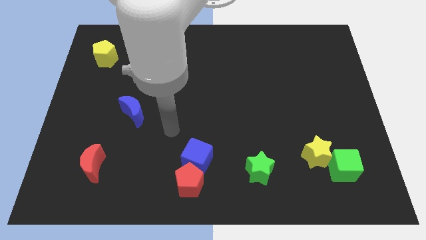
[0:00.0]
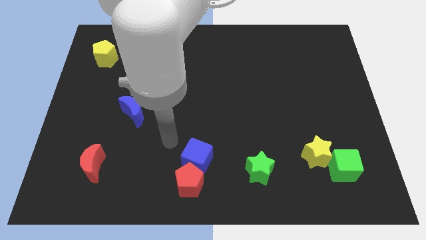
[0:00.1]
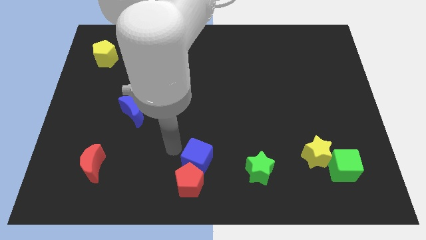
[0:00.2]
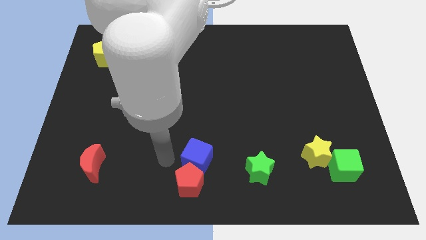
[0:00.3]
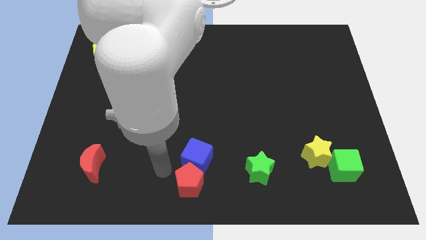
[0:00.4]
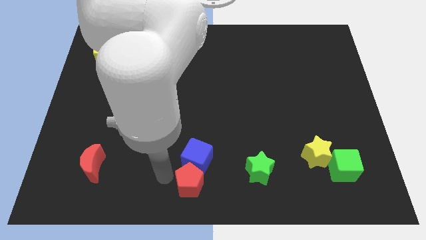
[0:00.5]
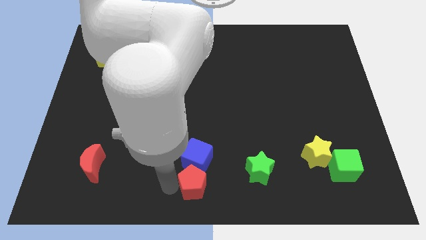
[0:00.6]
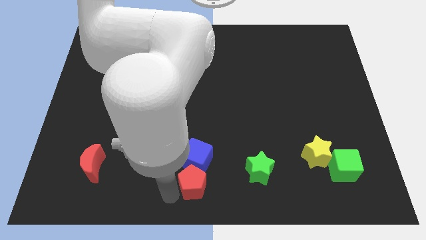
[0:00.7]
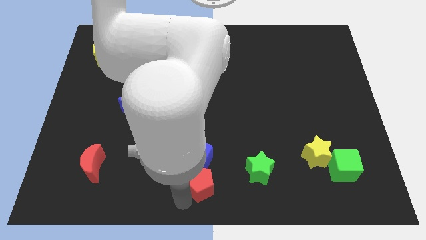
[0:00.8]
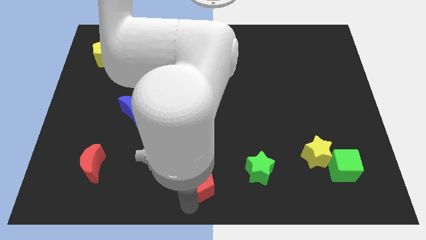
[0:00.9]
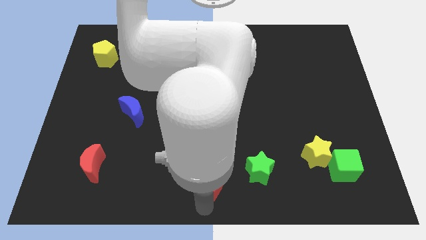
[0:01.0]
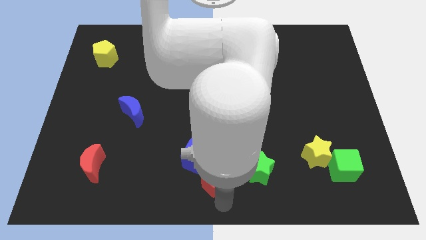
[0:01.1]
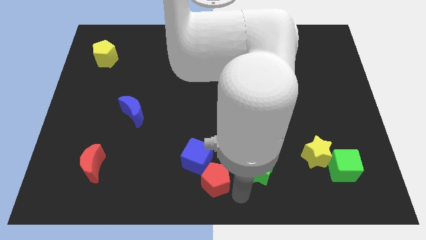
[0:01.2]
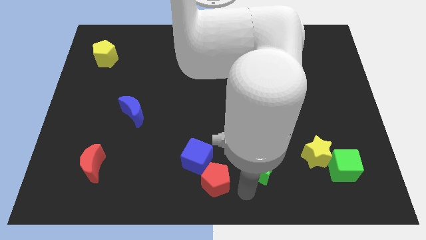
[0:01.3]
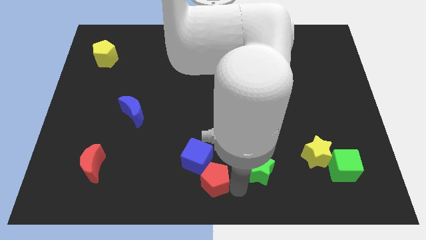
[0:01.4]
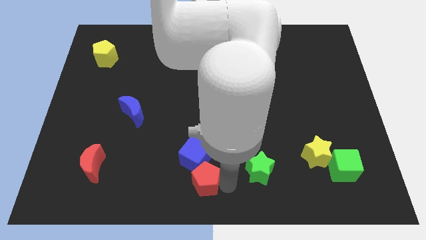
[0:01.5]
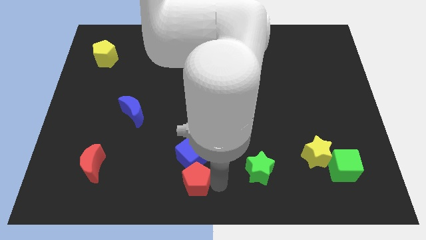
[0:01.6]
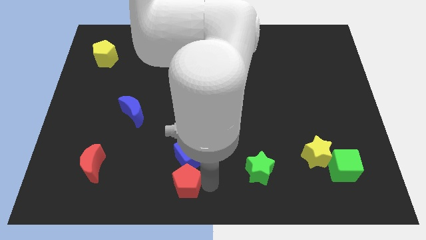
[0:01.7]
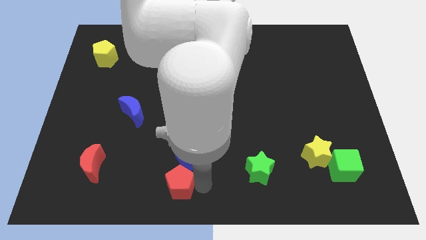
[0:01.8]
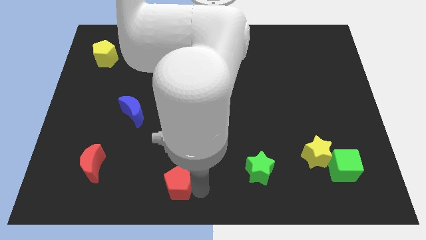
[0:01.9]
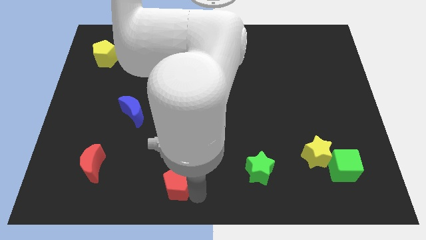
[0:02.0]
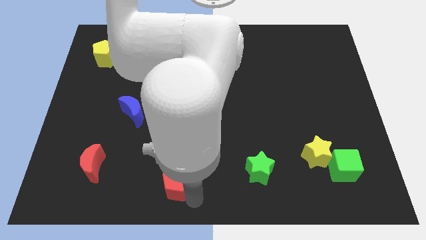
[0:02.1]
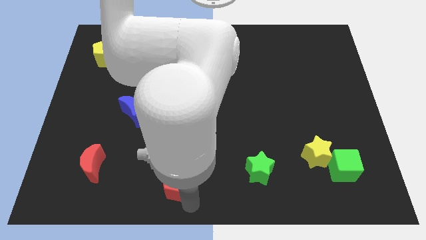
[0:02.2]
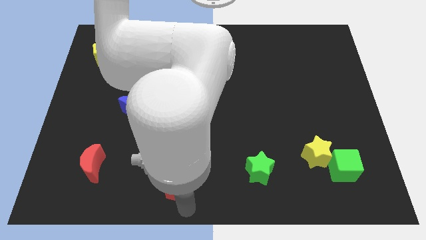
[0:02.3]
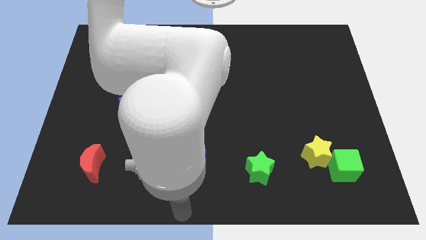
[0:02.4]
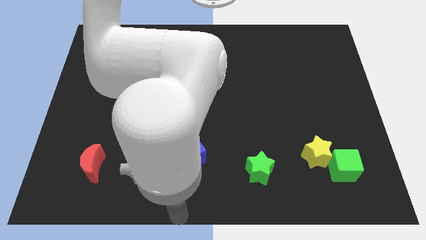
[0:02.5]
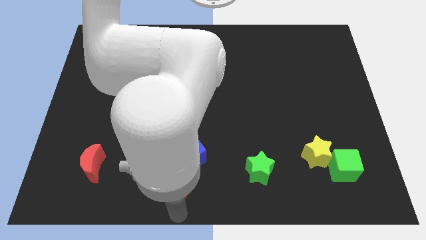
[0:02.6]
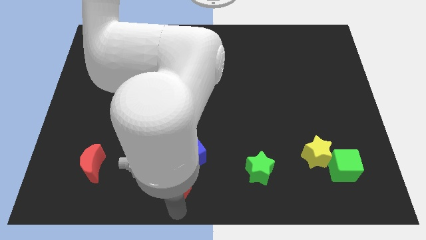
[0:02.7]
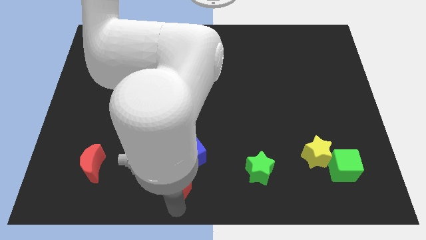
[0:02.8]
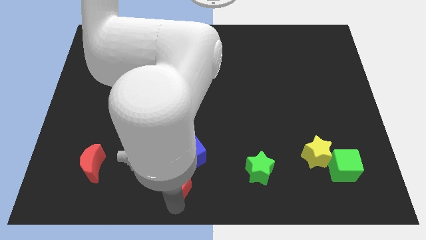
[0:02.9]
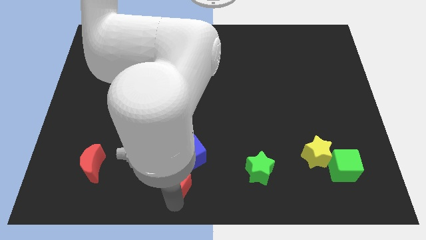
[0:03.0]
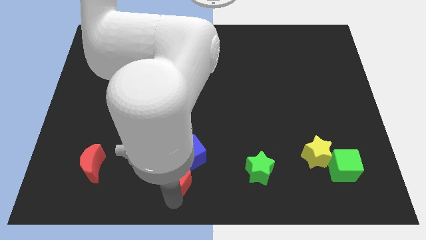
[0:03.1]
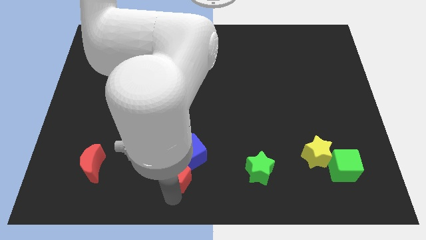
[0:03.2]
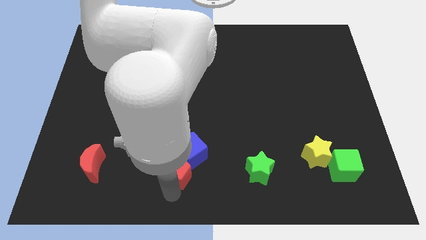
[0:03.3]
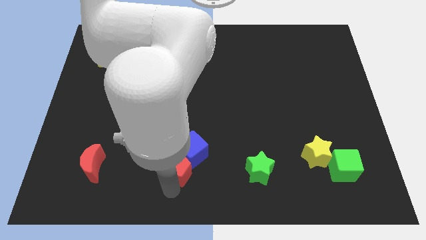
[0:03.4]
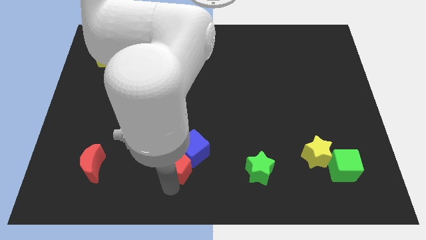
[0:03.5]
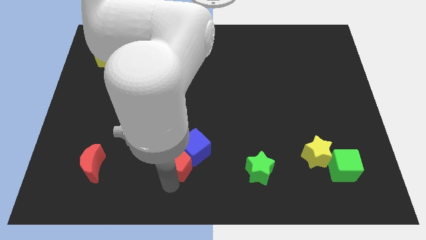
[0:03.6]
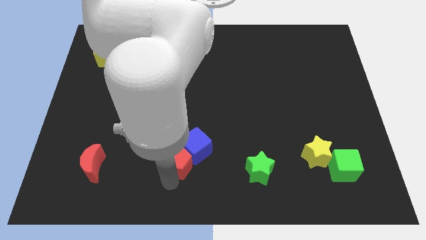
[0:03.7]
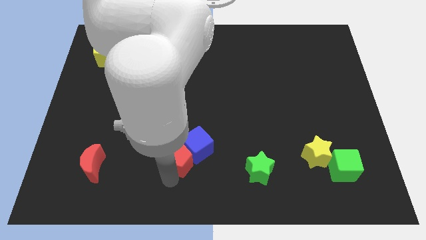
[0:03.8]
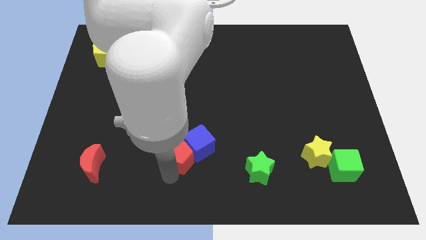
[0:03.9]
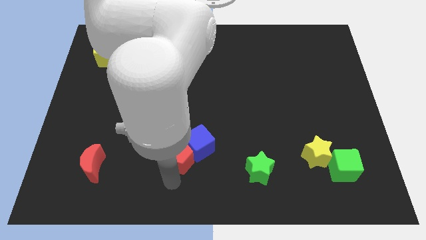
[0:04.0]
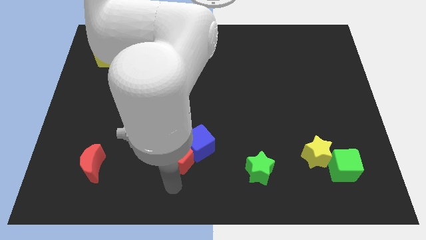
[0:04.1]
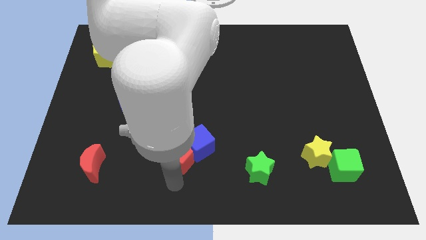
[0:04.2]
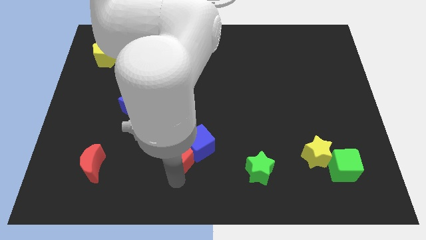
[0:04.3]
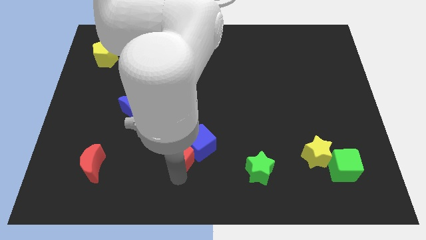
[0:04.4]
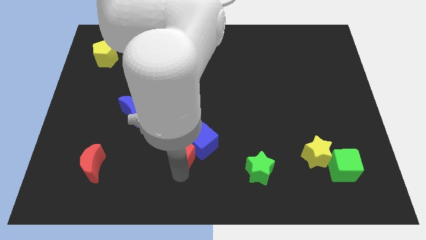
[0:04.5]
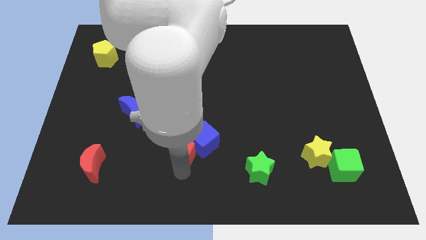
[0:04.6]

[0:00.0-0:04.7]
push the red pentagon a bit upwards

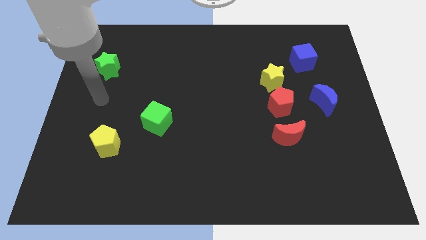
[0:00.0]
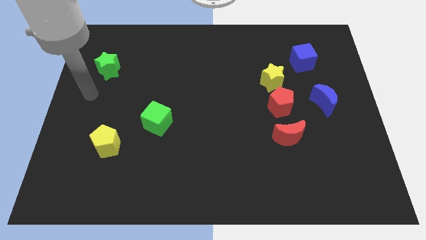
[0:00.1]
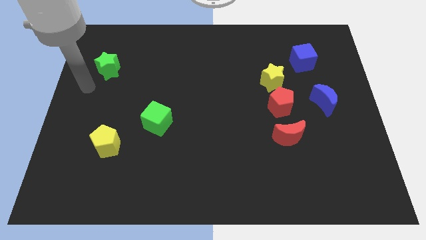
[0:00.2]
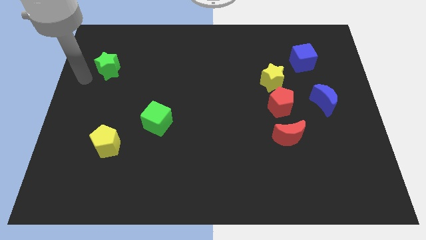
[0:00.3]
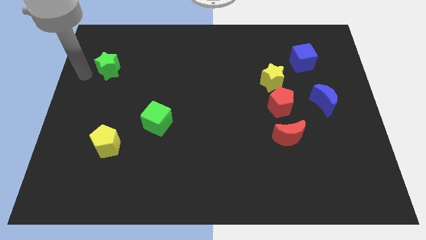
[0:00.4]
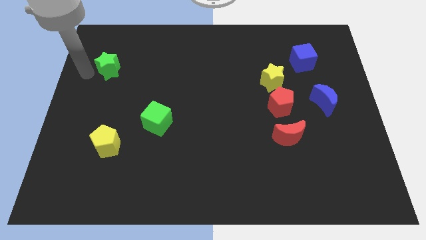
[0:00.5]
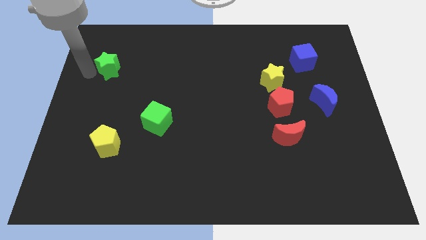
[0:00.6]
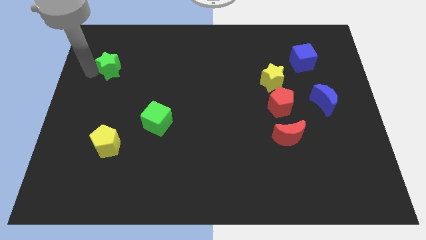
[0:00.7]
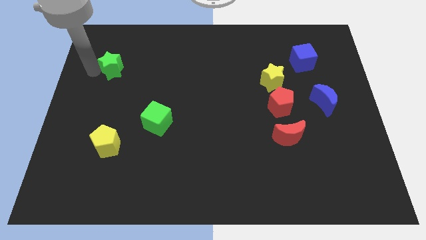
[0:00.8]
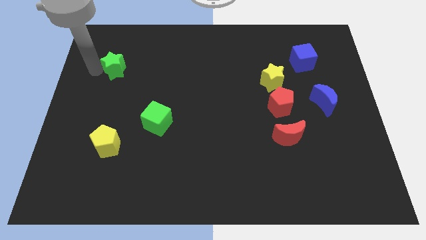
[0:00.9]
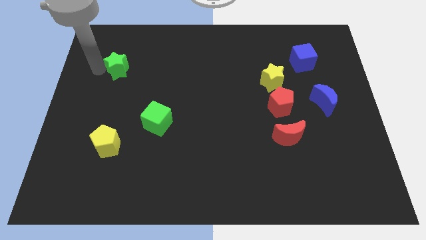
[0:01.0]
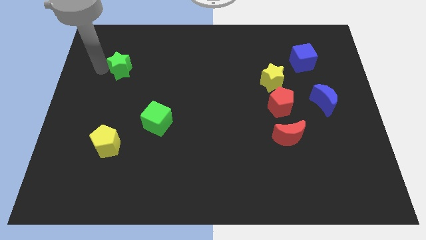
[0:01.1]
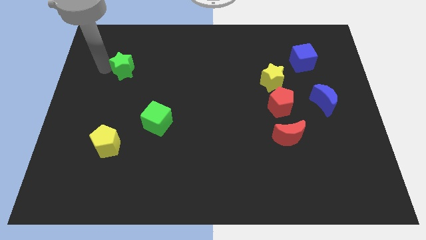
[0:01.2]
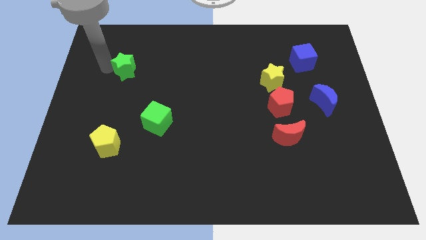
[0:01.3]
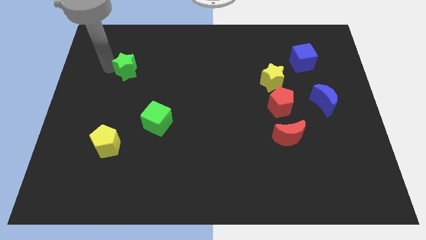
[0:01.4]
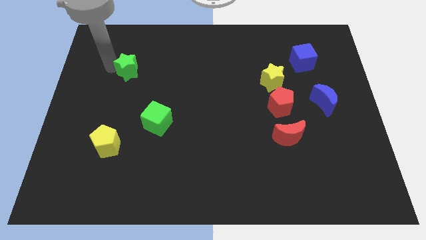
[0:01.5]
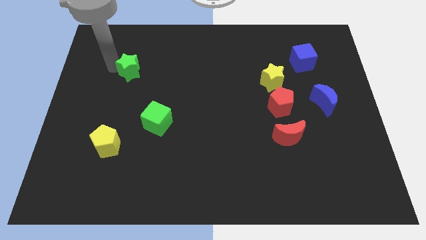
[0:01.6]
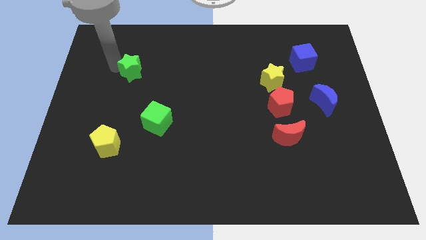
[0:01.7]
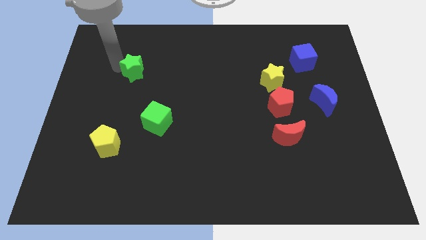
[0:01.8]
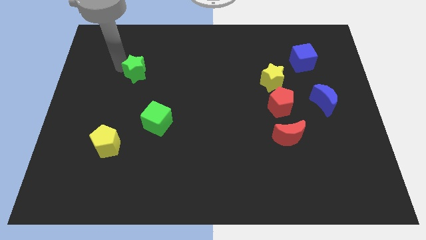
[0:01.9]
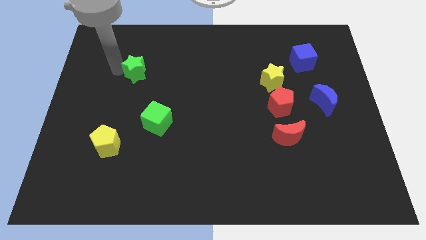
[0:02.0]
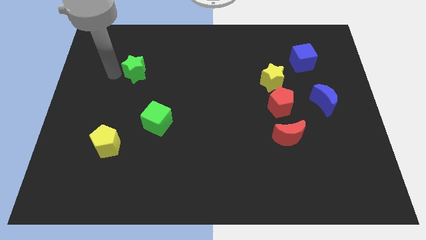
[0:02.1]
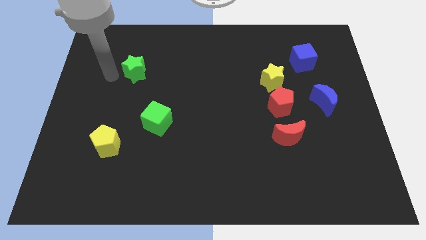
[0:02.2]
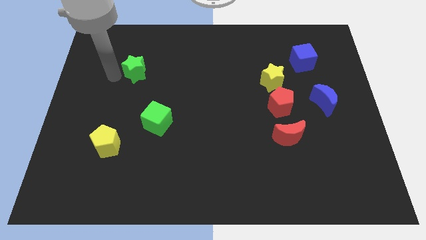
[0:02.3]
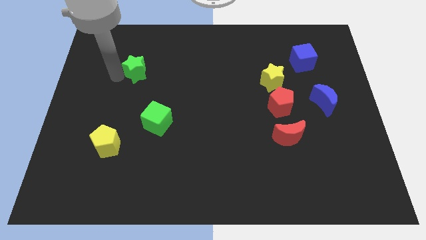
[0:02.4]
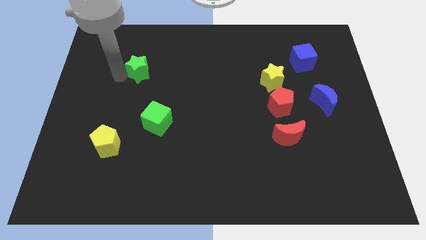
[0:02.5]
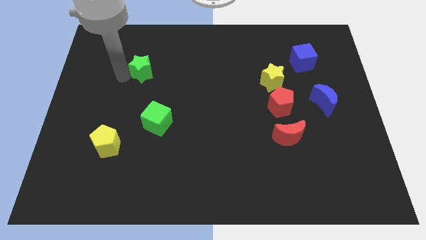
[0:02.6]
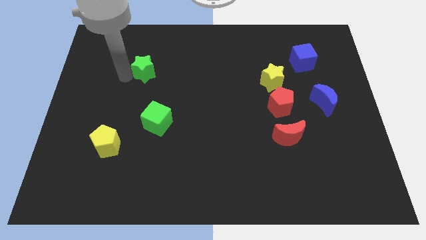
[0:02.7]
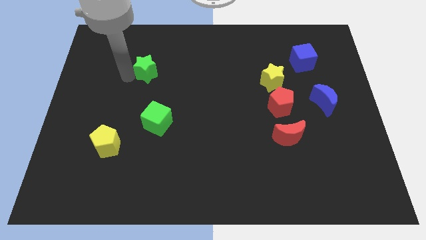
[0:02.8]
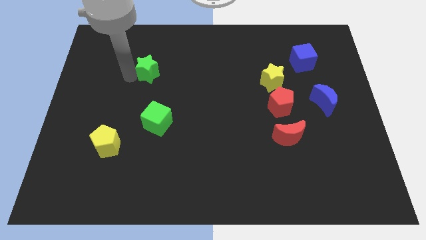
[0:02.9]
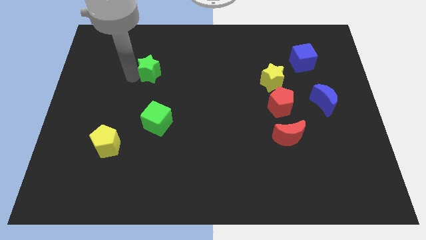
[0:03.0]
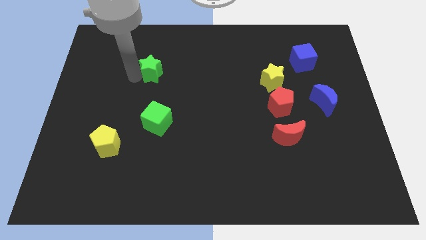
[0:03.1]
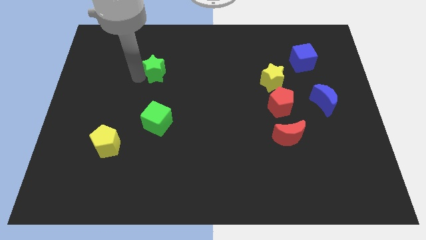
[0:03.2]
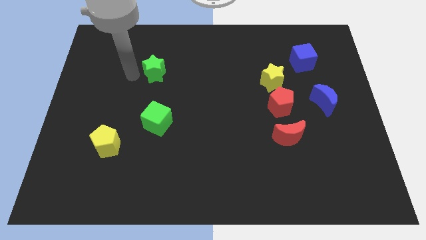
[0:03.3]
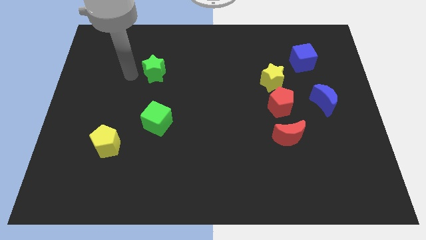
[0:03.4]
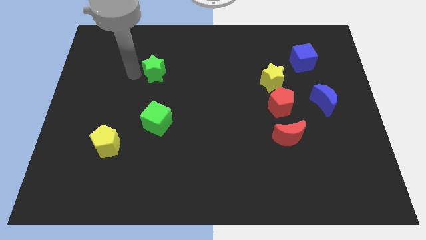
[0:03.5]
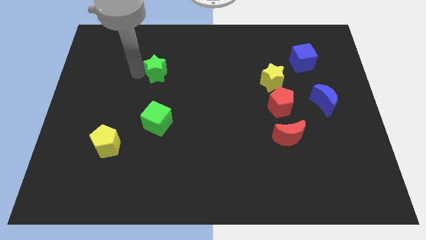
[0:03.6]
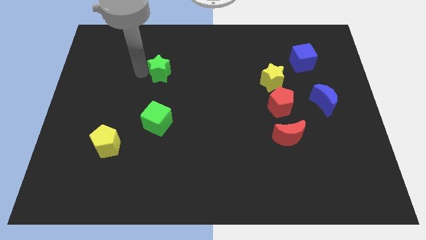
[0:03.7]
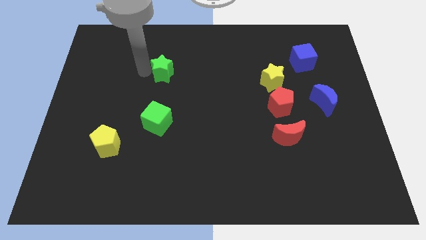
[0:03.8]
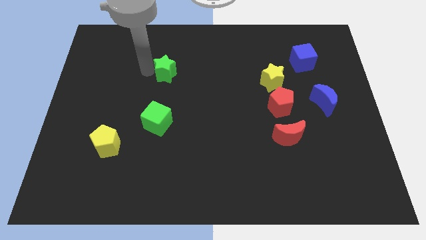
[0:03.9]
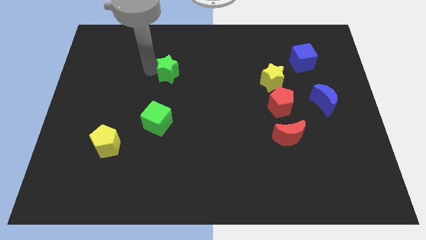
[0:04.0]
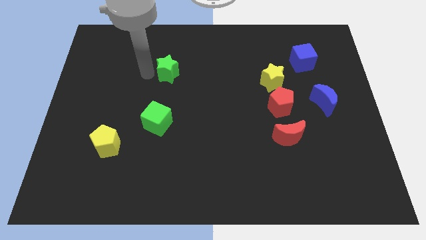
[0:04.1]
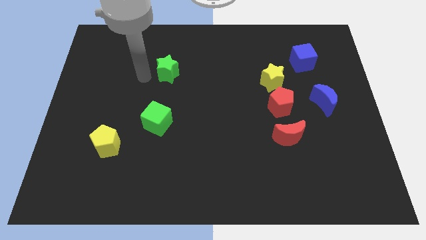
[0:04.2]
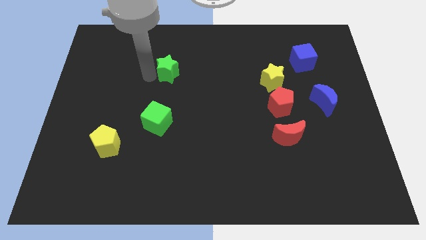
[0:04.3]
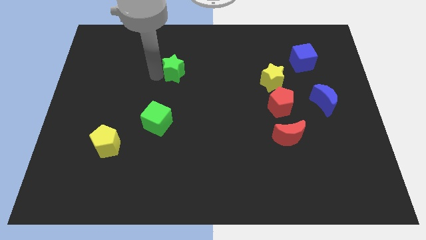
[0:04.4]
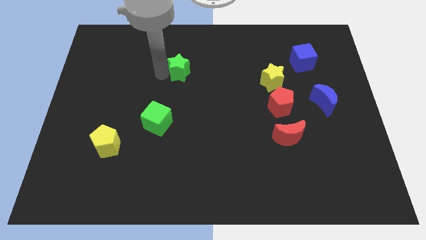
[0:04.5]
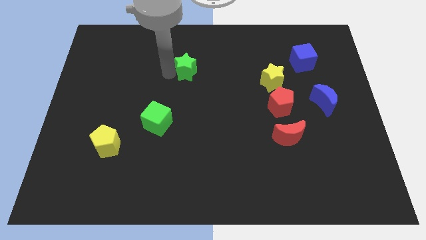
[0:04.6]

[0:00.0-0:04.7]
move the green star to the right
